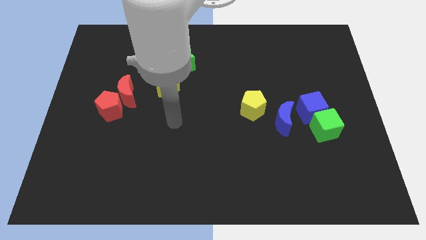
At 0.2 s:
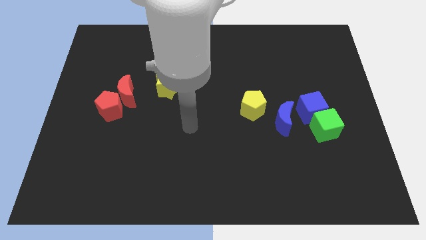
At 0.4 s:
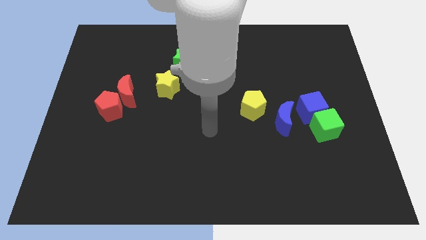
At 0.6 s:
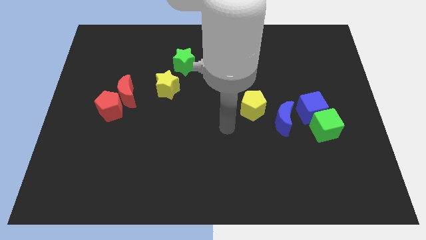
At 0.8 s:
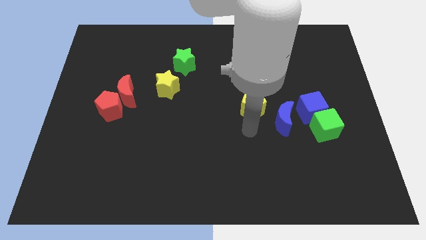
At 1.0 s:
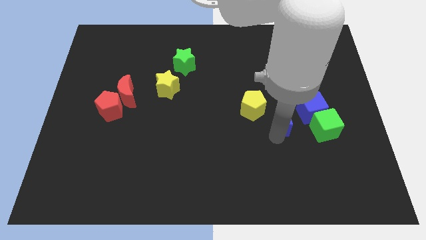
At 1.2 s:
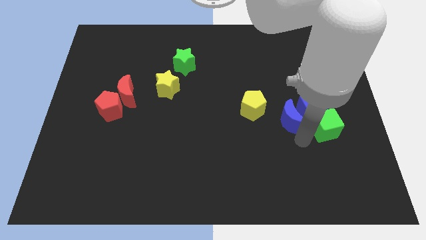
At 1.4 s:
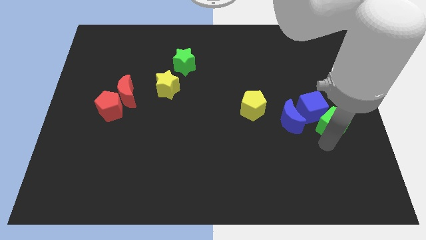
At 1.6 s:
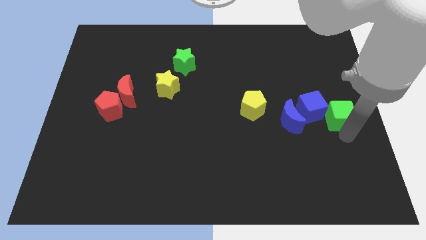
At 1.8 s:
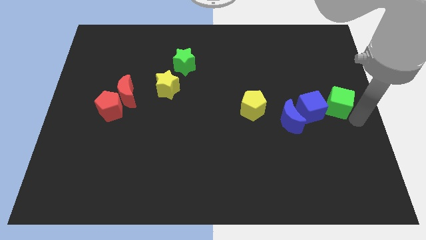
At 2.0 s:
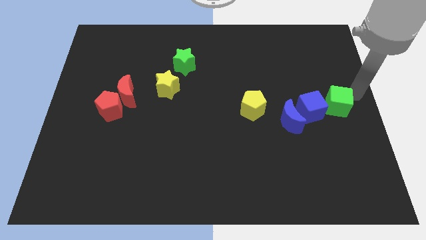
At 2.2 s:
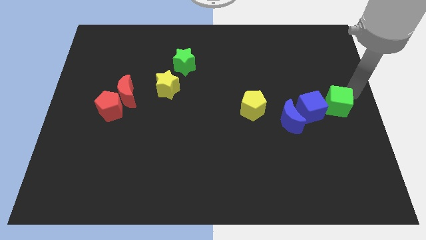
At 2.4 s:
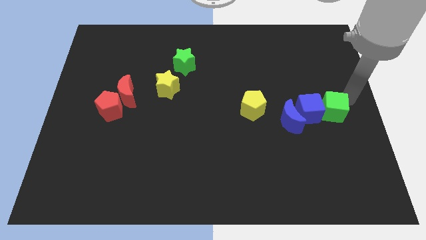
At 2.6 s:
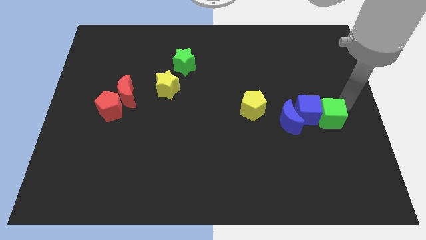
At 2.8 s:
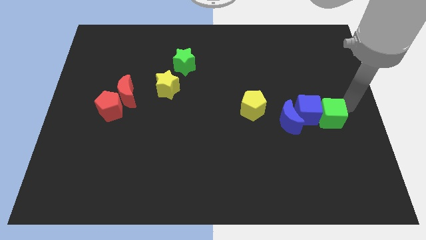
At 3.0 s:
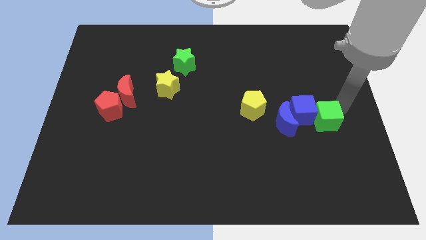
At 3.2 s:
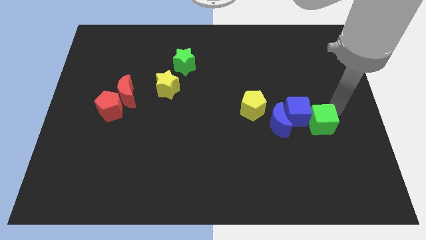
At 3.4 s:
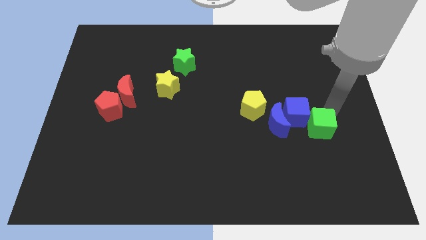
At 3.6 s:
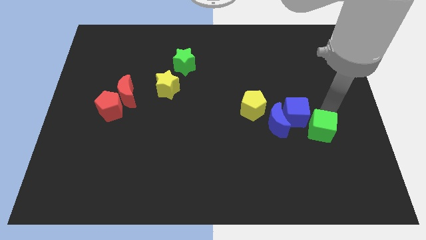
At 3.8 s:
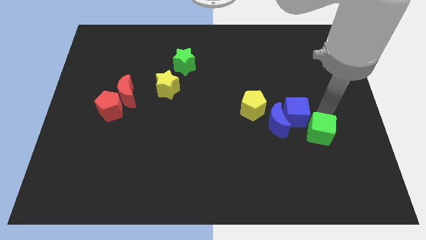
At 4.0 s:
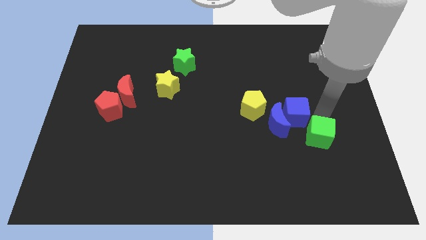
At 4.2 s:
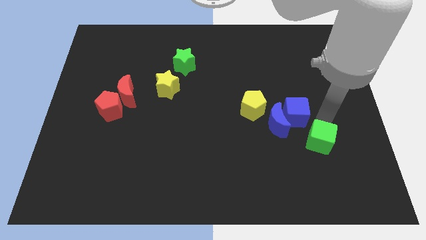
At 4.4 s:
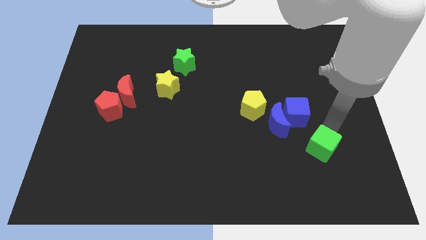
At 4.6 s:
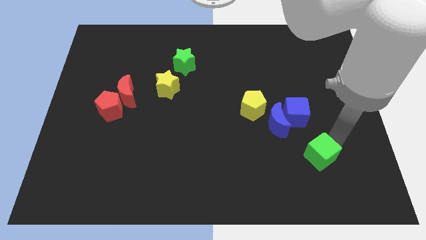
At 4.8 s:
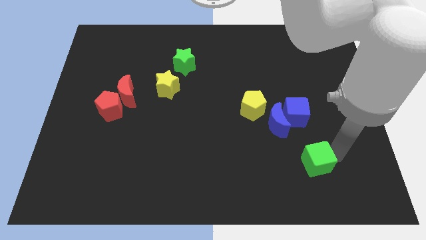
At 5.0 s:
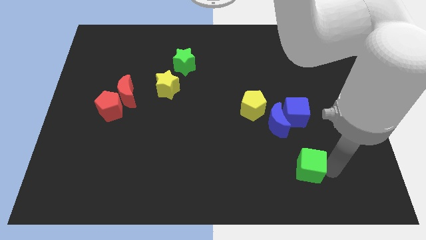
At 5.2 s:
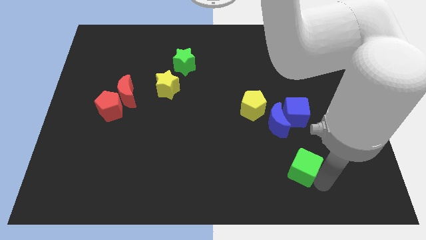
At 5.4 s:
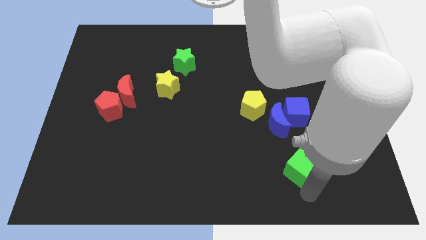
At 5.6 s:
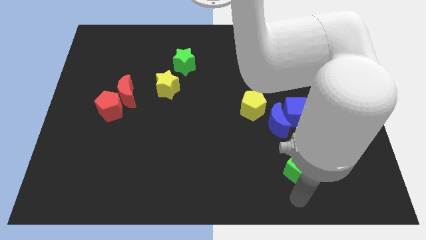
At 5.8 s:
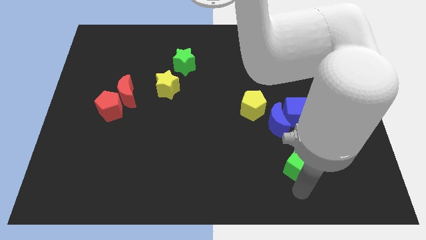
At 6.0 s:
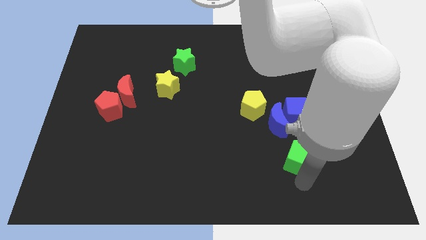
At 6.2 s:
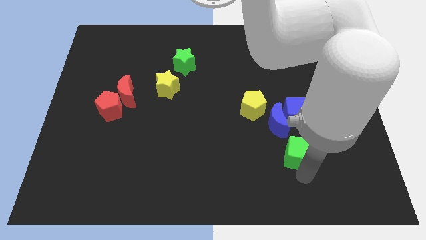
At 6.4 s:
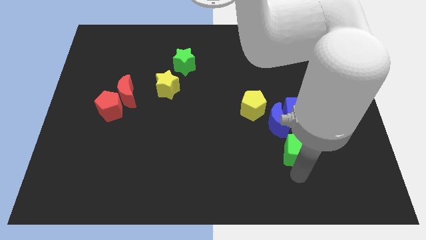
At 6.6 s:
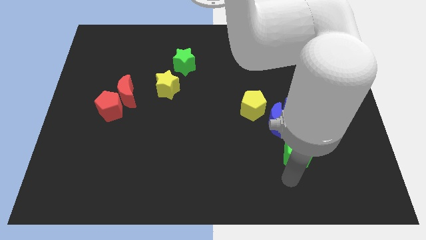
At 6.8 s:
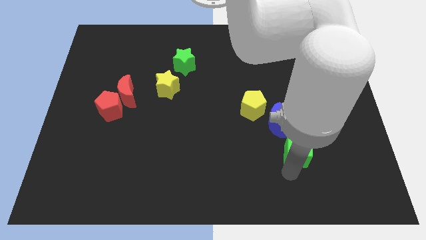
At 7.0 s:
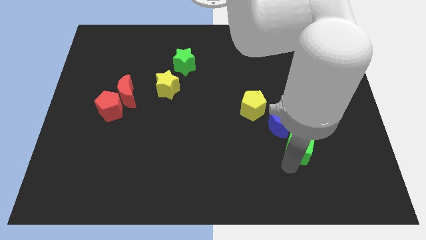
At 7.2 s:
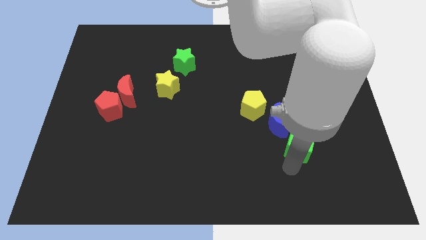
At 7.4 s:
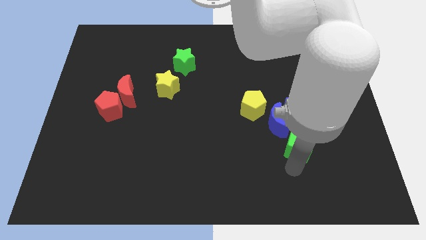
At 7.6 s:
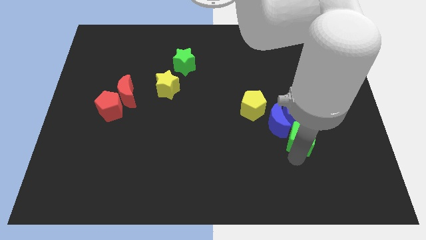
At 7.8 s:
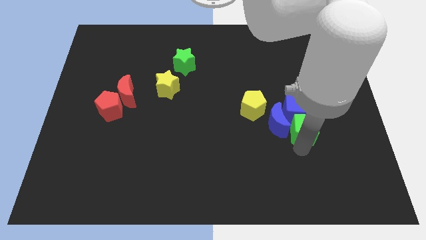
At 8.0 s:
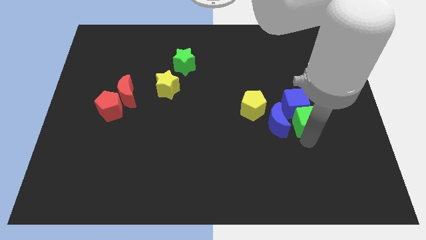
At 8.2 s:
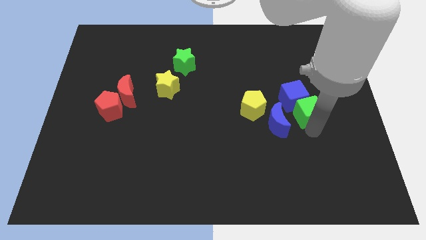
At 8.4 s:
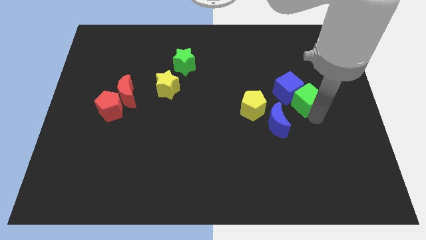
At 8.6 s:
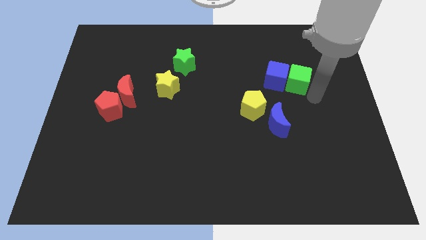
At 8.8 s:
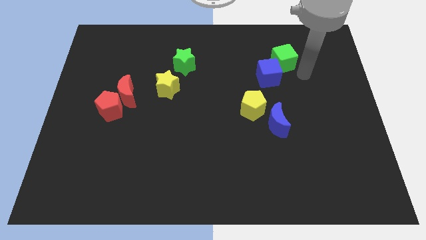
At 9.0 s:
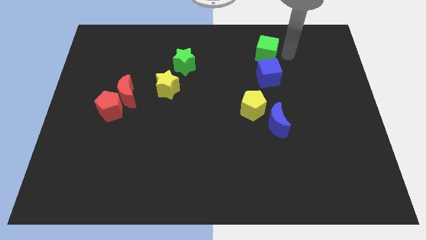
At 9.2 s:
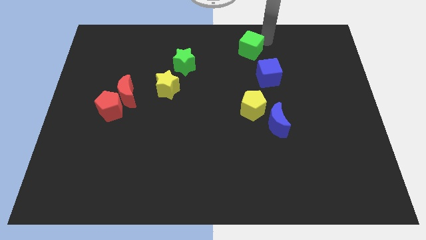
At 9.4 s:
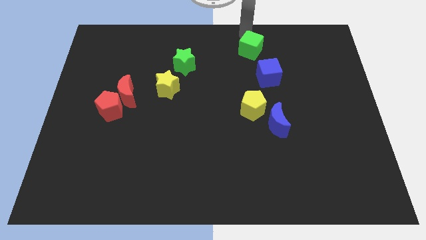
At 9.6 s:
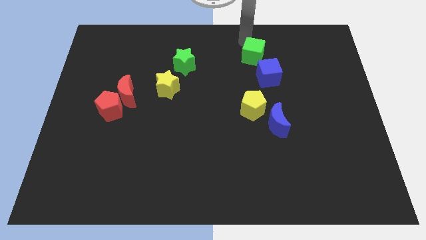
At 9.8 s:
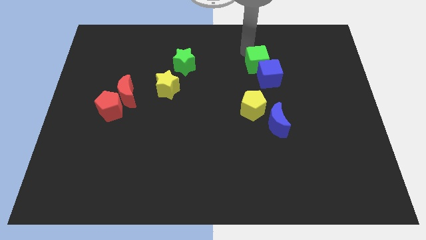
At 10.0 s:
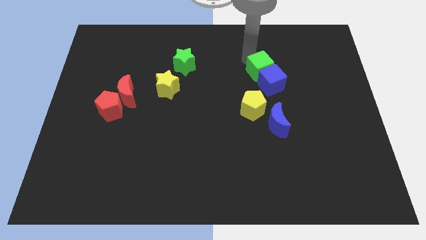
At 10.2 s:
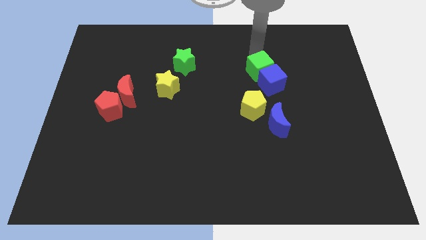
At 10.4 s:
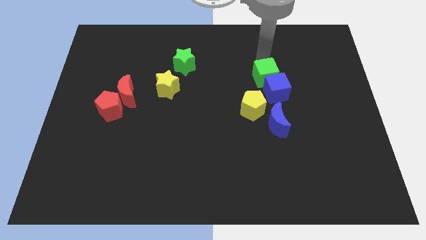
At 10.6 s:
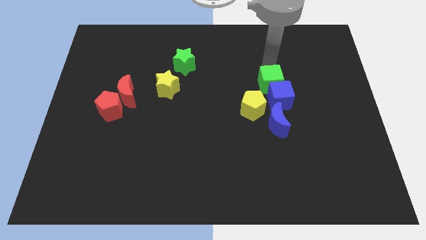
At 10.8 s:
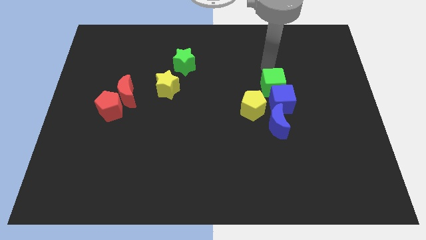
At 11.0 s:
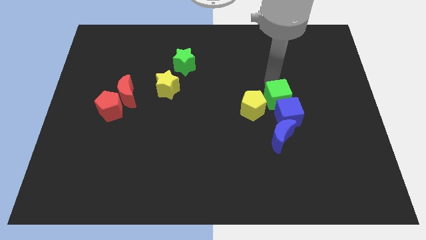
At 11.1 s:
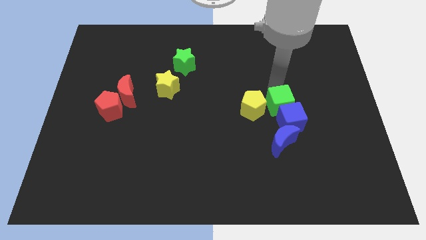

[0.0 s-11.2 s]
move the green cube towards the yellow pentagon
